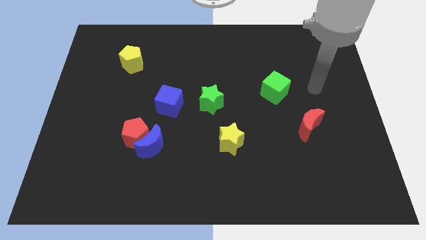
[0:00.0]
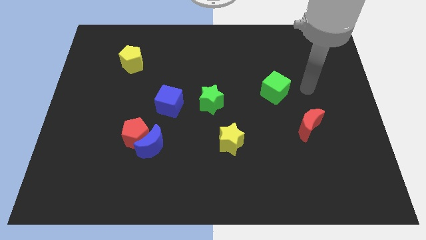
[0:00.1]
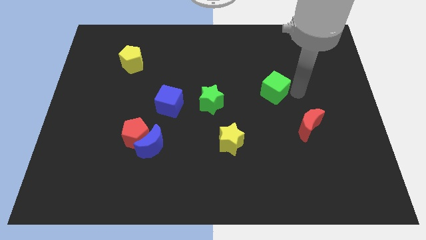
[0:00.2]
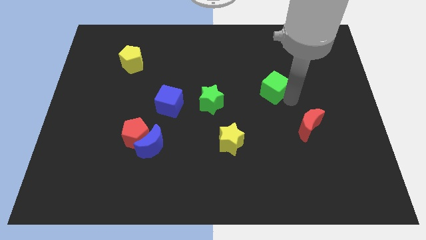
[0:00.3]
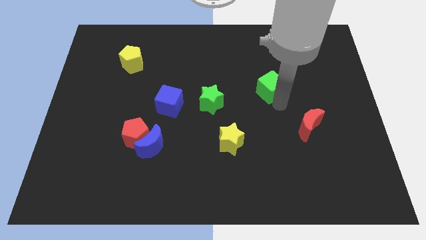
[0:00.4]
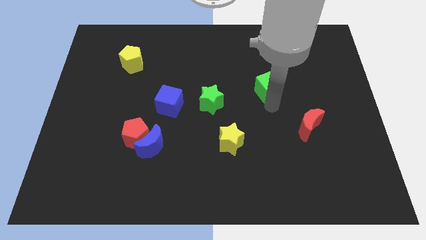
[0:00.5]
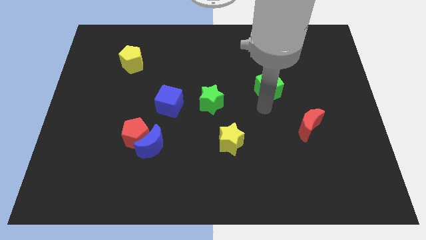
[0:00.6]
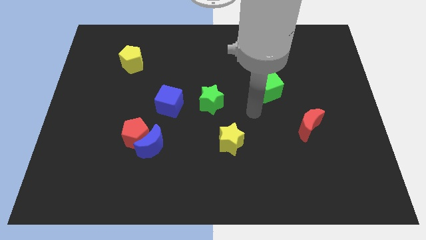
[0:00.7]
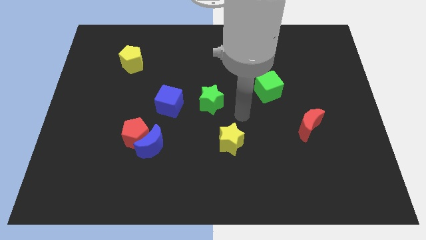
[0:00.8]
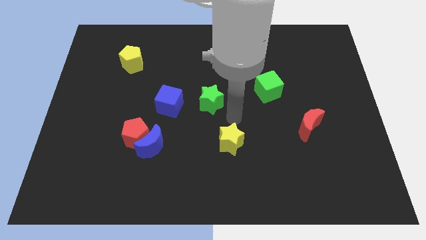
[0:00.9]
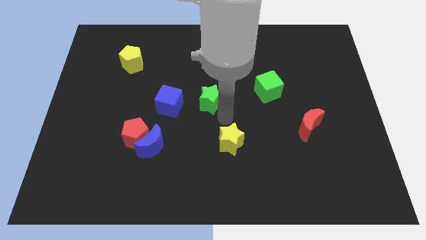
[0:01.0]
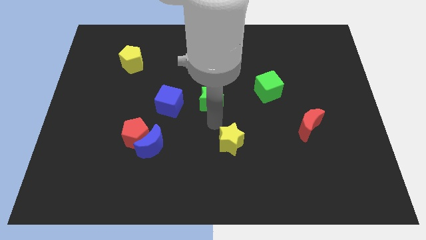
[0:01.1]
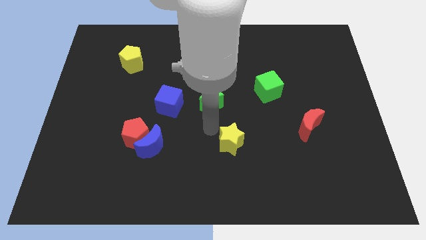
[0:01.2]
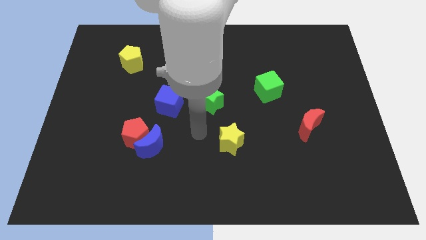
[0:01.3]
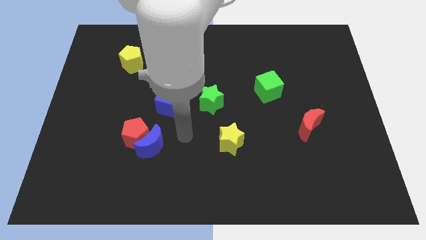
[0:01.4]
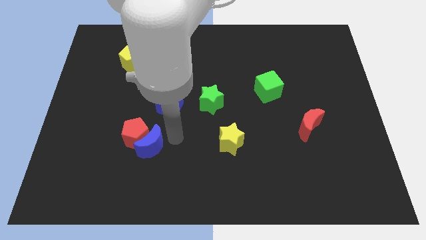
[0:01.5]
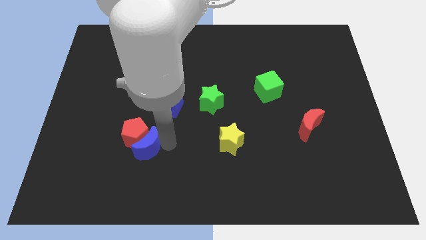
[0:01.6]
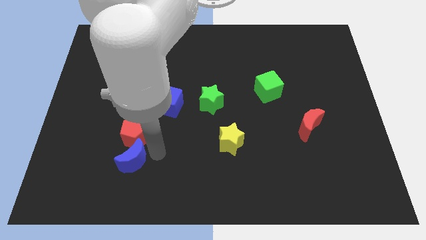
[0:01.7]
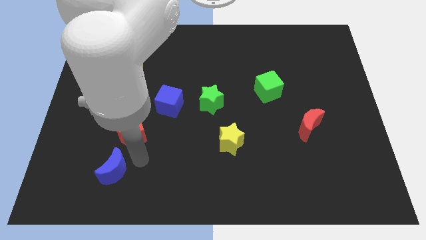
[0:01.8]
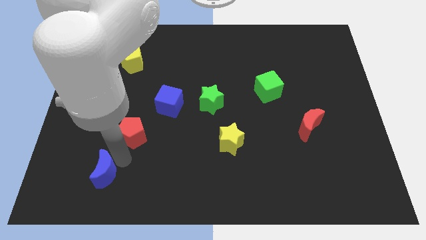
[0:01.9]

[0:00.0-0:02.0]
pull the red pentagon apart from the blue moon

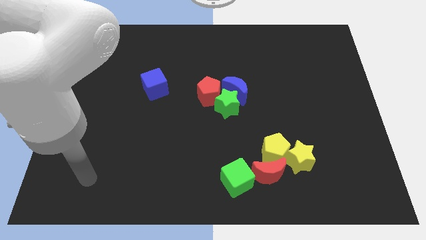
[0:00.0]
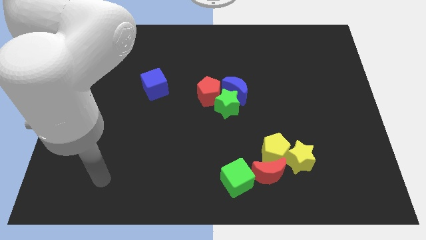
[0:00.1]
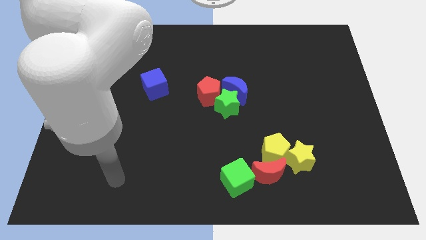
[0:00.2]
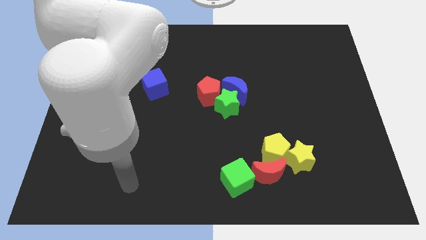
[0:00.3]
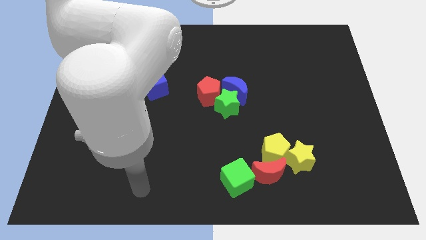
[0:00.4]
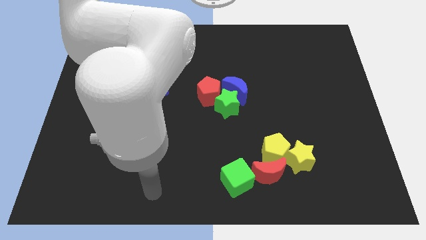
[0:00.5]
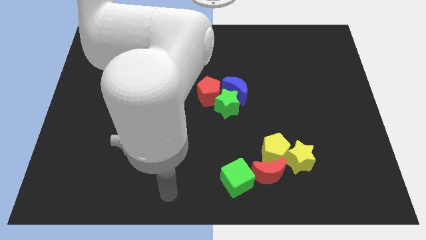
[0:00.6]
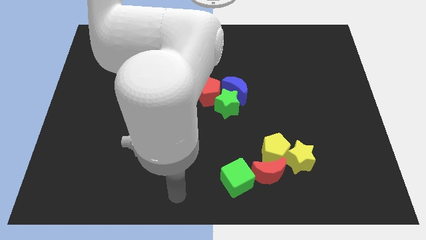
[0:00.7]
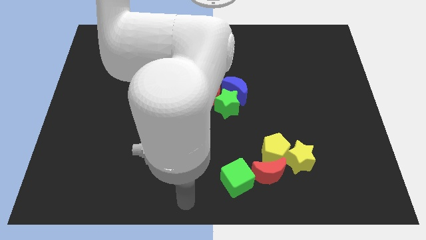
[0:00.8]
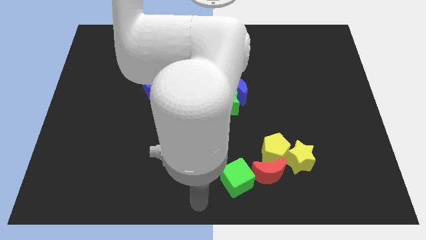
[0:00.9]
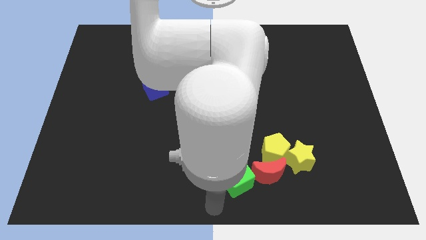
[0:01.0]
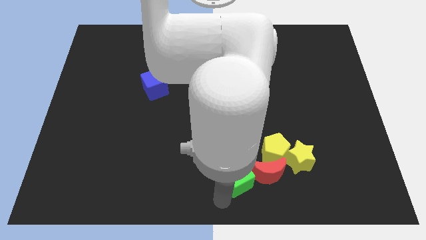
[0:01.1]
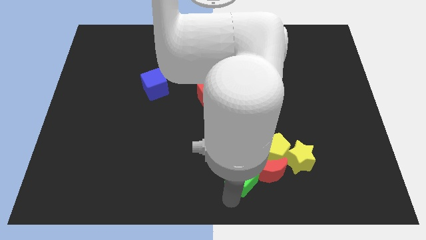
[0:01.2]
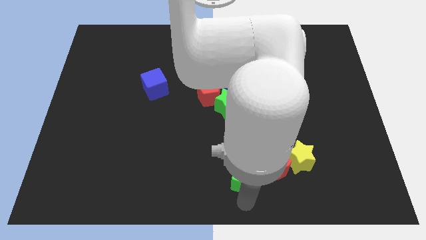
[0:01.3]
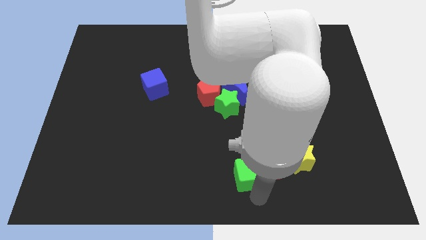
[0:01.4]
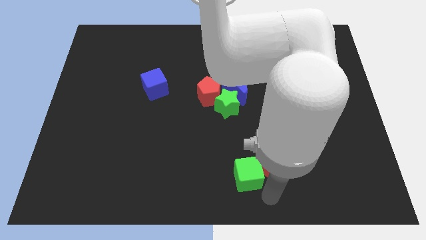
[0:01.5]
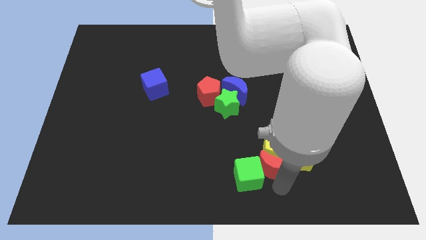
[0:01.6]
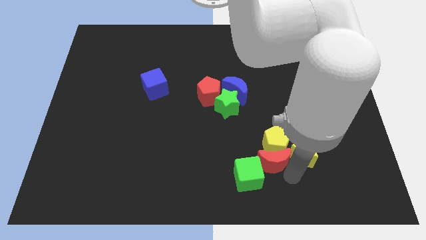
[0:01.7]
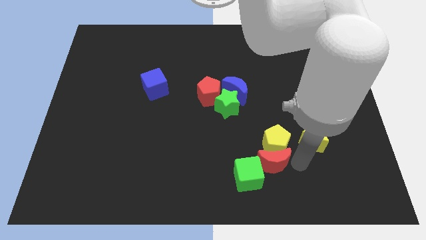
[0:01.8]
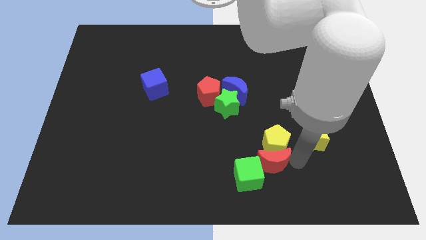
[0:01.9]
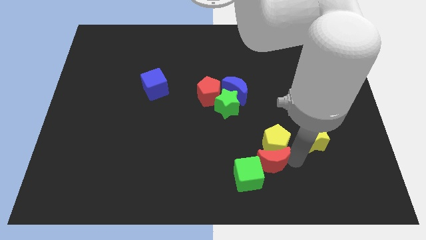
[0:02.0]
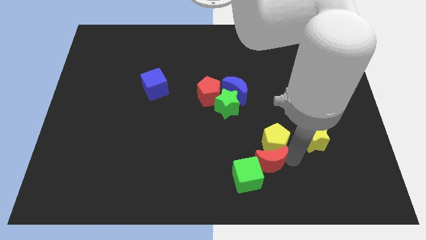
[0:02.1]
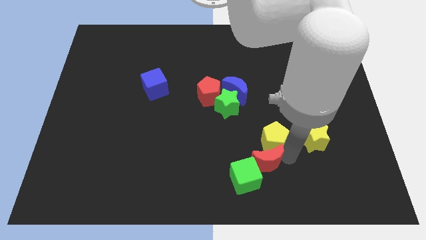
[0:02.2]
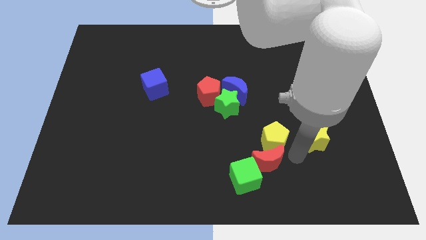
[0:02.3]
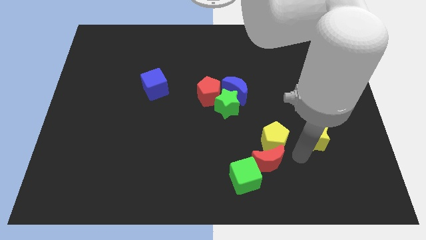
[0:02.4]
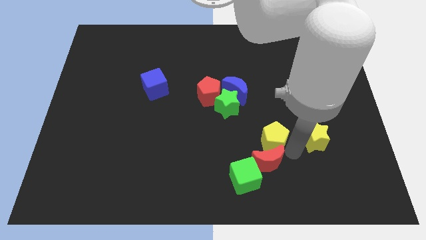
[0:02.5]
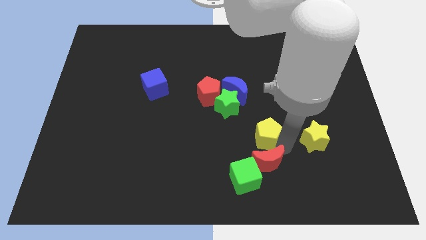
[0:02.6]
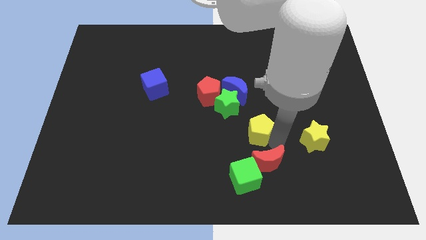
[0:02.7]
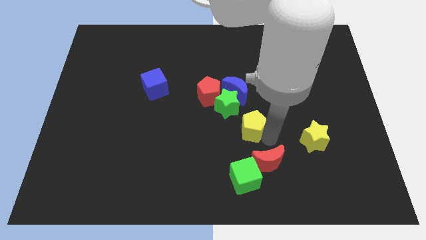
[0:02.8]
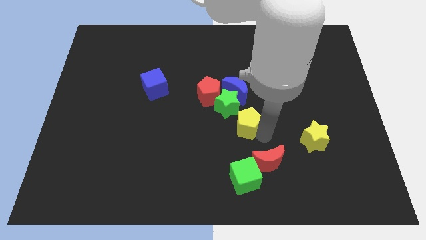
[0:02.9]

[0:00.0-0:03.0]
separate the yellow pentagon from the red moon and yellow star

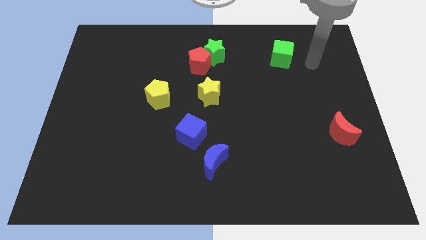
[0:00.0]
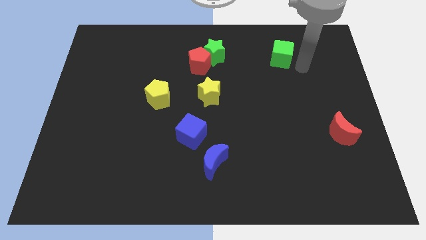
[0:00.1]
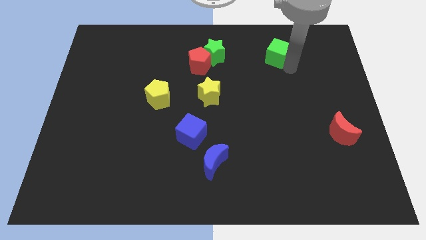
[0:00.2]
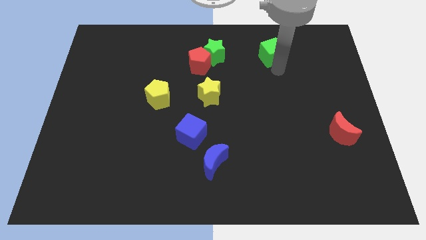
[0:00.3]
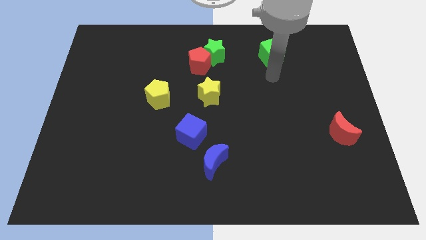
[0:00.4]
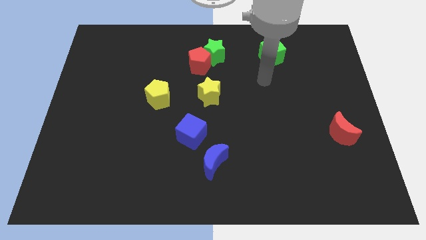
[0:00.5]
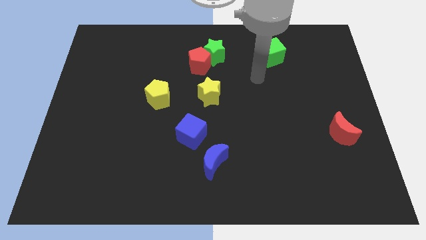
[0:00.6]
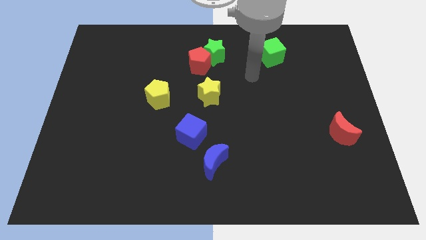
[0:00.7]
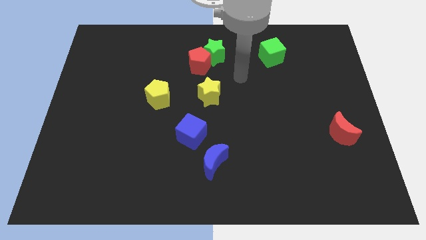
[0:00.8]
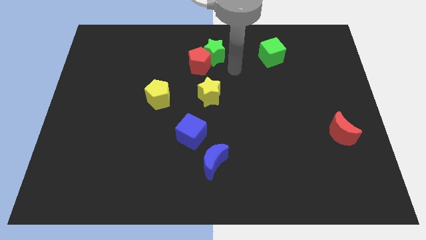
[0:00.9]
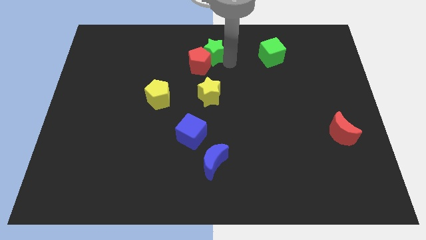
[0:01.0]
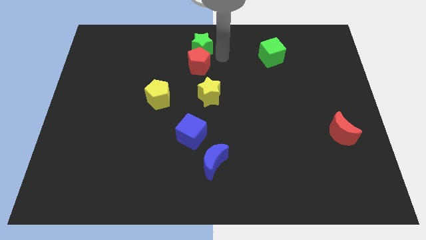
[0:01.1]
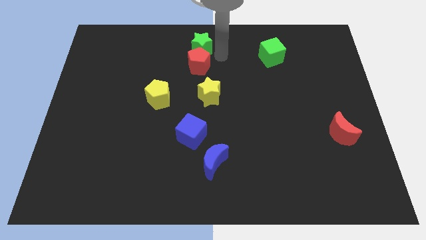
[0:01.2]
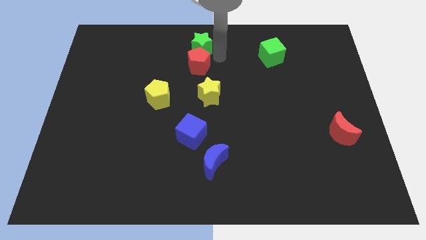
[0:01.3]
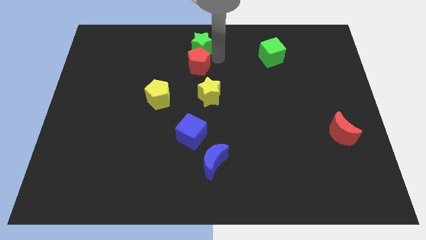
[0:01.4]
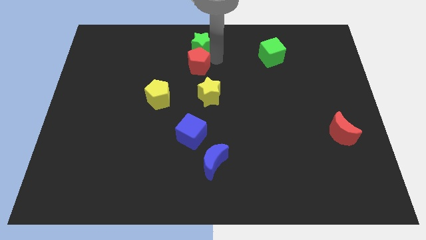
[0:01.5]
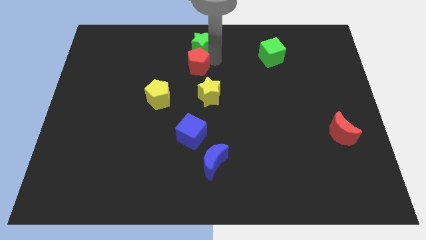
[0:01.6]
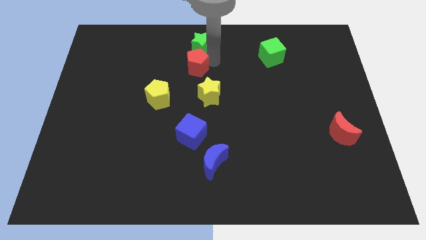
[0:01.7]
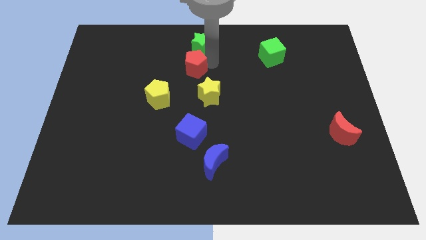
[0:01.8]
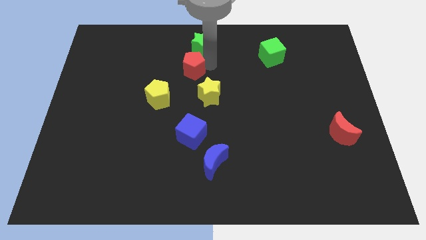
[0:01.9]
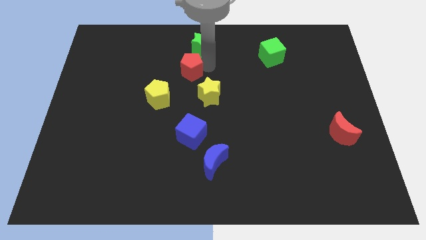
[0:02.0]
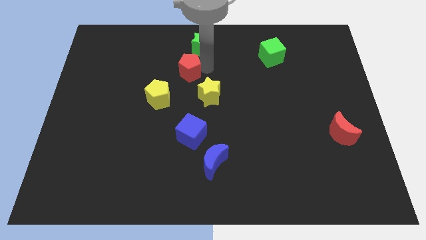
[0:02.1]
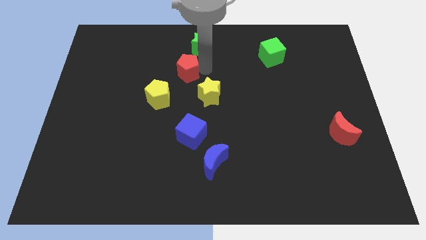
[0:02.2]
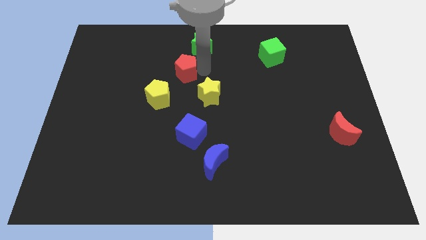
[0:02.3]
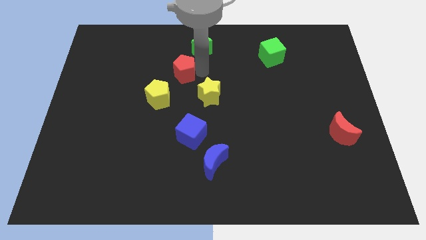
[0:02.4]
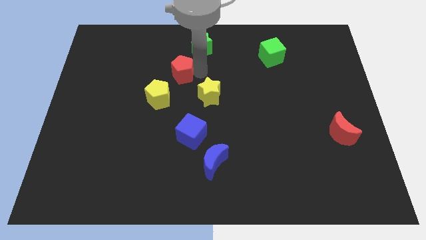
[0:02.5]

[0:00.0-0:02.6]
pull the red pentagon apart from the green star

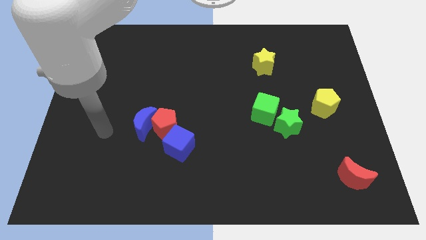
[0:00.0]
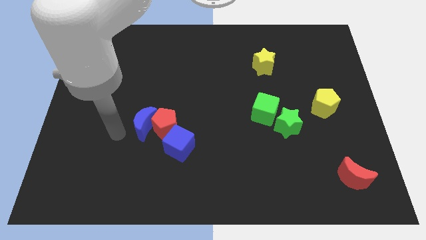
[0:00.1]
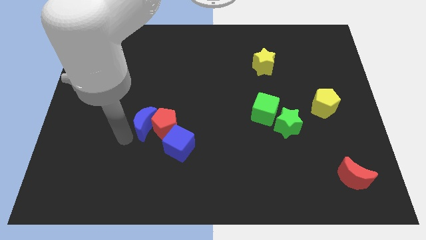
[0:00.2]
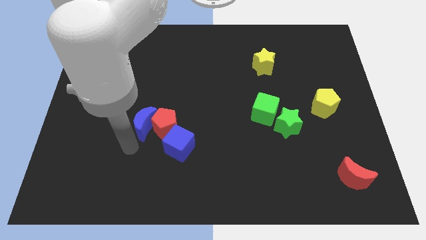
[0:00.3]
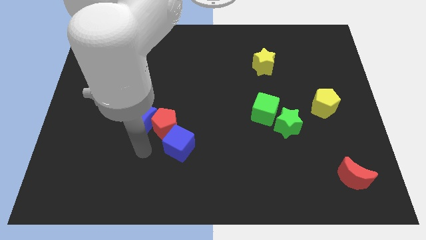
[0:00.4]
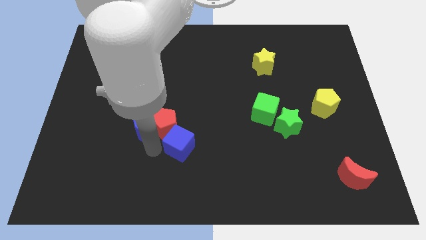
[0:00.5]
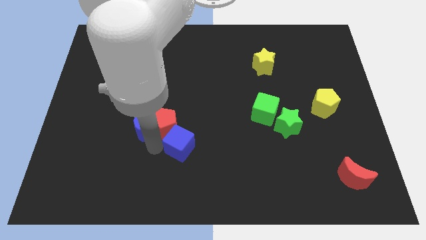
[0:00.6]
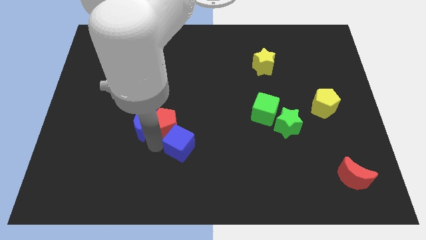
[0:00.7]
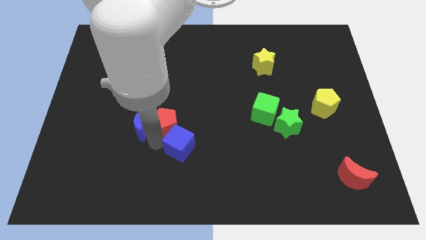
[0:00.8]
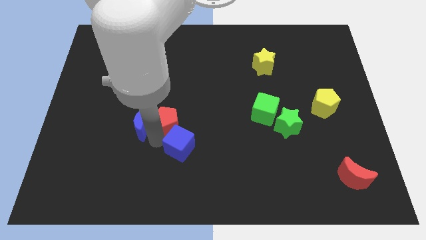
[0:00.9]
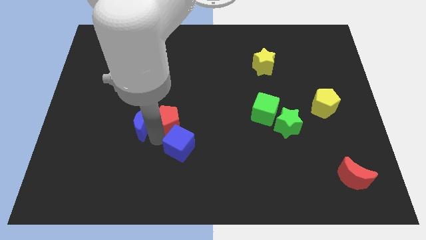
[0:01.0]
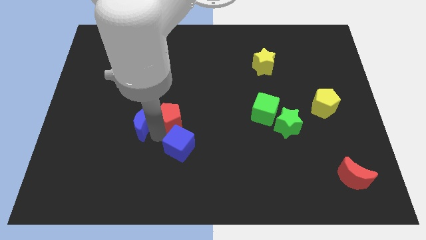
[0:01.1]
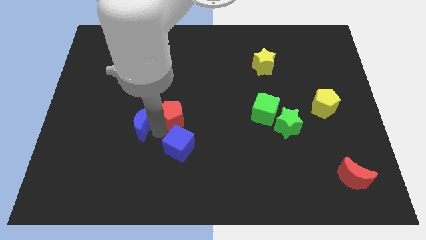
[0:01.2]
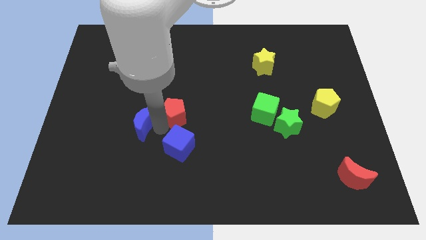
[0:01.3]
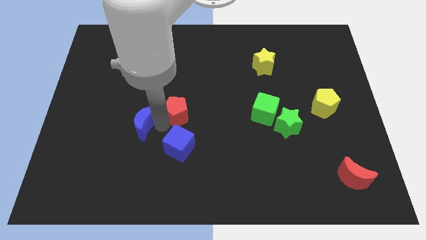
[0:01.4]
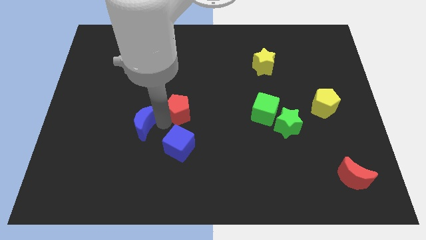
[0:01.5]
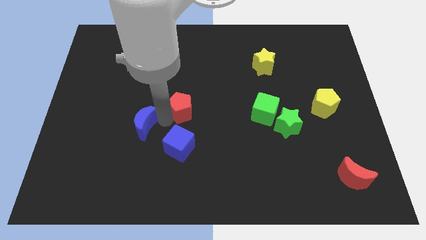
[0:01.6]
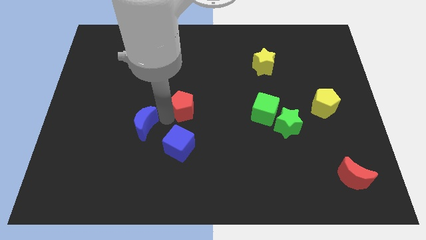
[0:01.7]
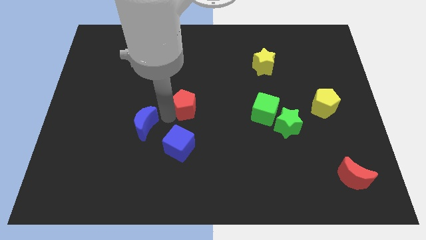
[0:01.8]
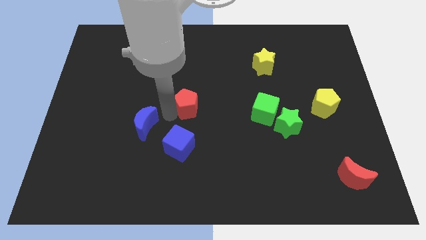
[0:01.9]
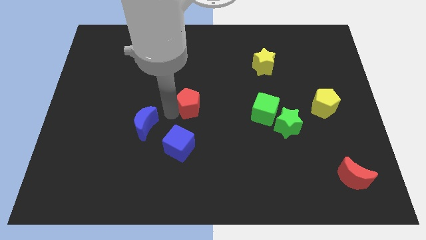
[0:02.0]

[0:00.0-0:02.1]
pull the red pentagon apart from the blue moon and blue cube
